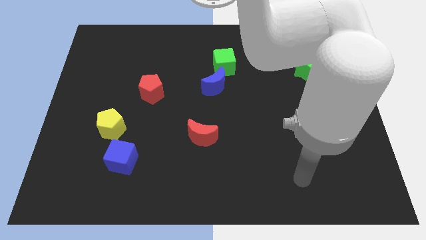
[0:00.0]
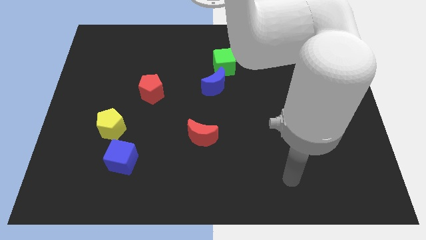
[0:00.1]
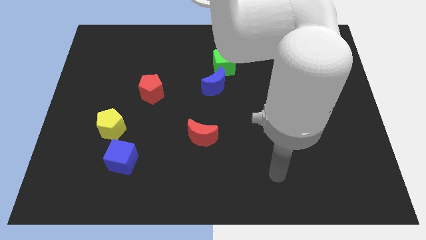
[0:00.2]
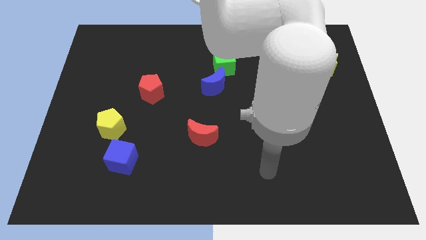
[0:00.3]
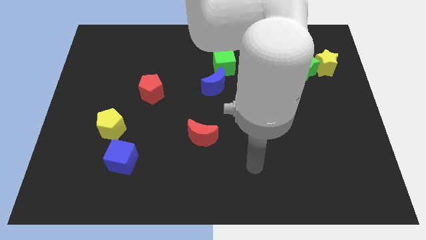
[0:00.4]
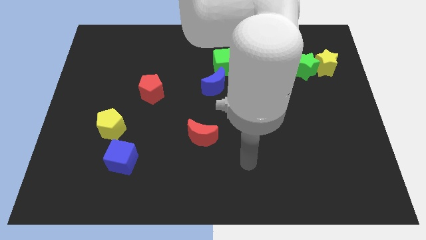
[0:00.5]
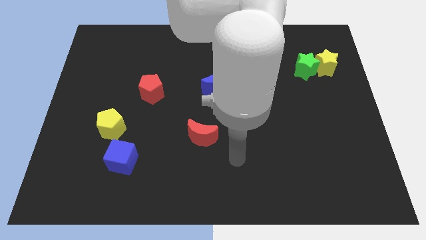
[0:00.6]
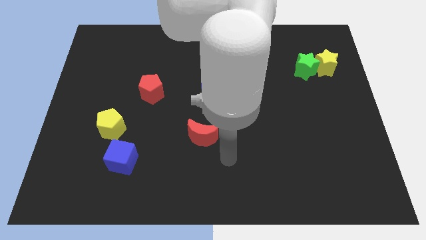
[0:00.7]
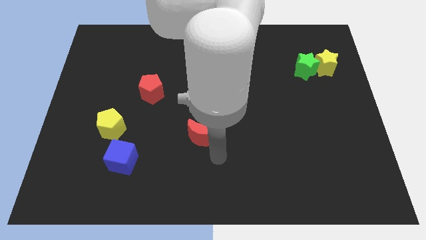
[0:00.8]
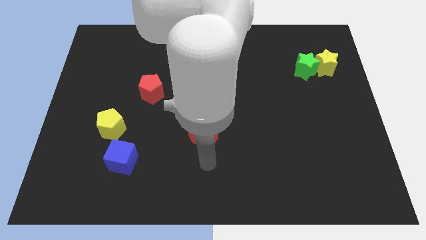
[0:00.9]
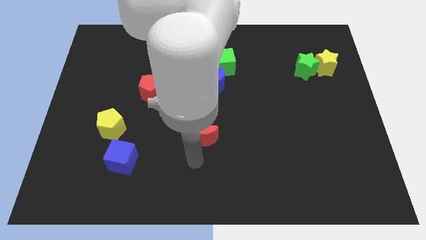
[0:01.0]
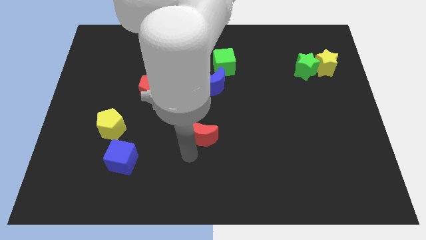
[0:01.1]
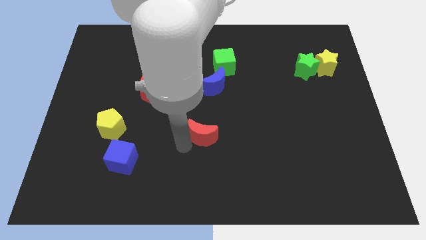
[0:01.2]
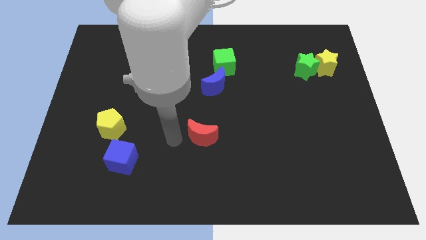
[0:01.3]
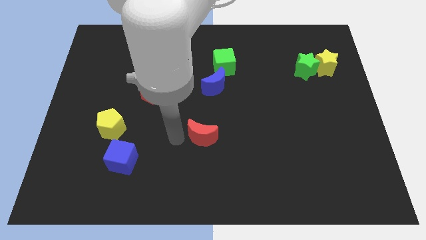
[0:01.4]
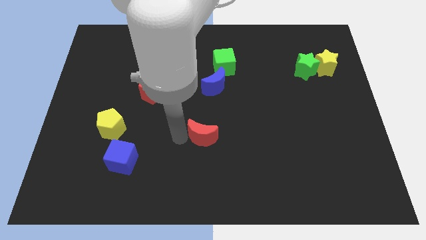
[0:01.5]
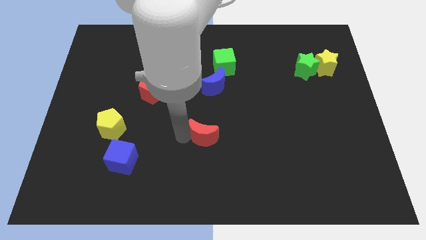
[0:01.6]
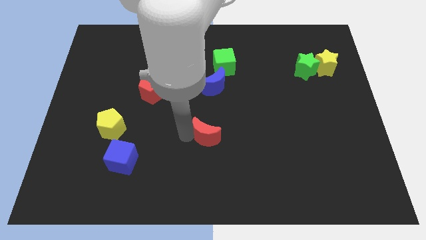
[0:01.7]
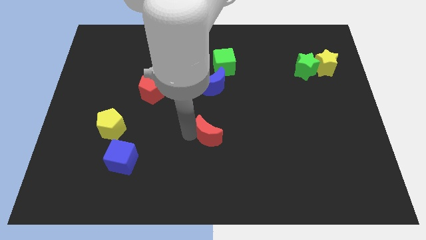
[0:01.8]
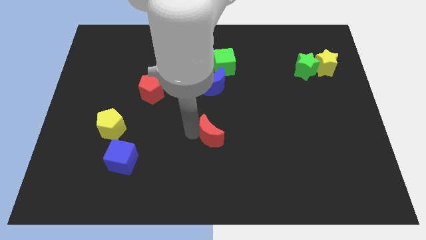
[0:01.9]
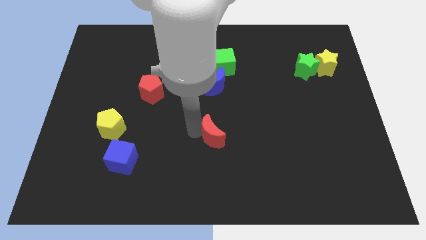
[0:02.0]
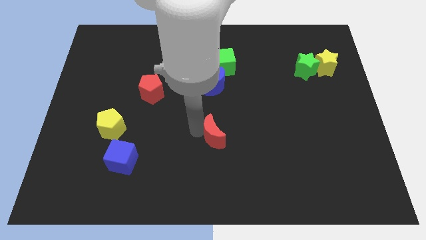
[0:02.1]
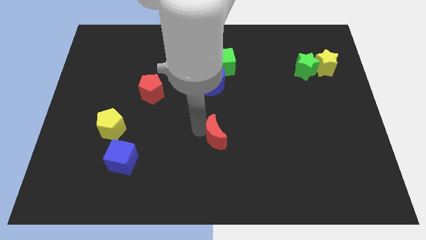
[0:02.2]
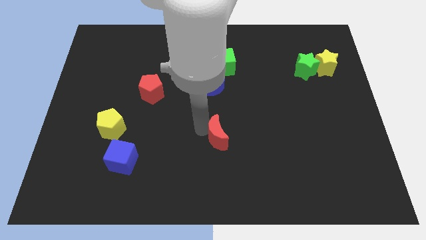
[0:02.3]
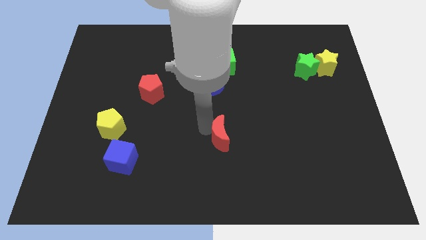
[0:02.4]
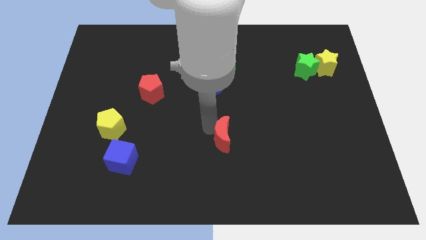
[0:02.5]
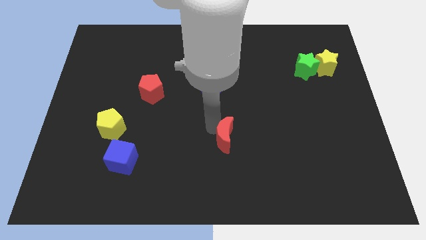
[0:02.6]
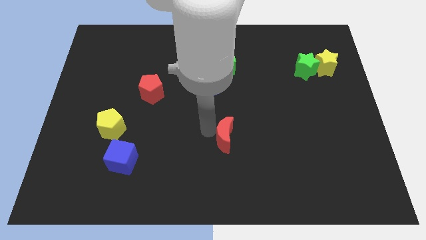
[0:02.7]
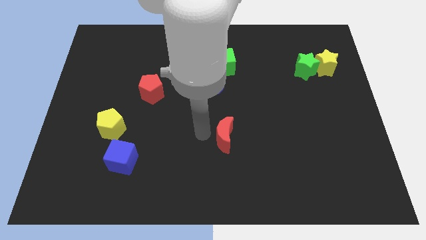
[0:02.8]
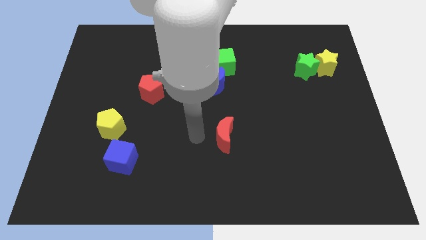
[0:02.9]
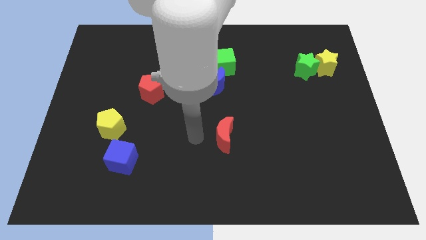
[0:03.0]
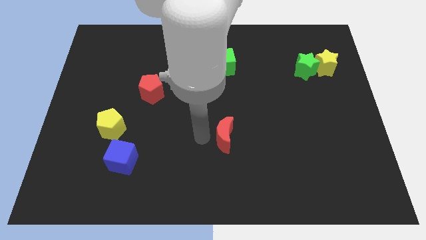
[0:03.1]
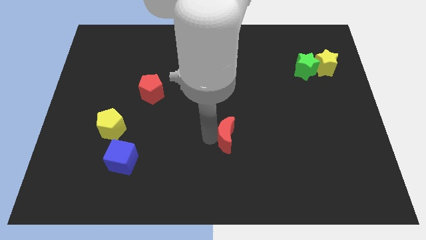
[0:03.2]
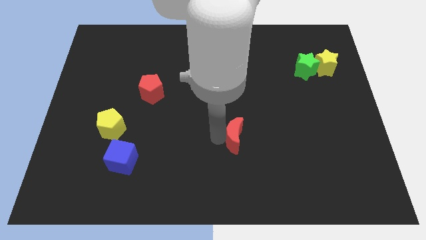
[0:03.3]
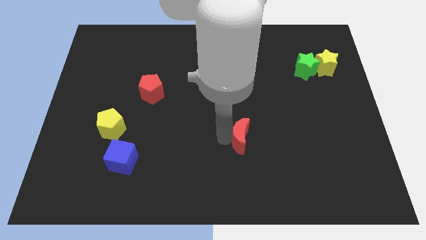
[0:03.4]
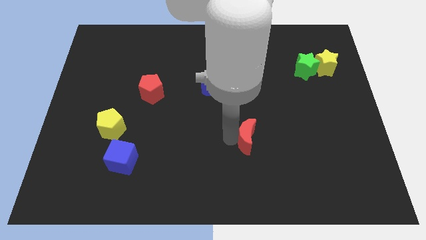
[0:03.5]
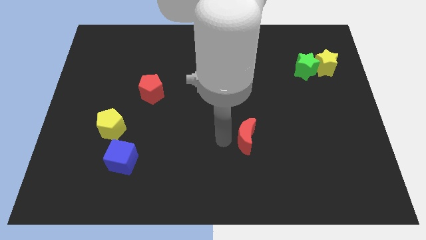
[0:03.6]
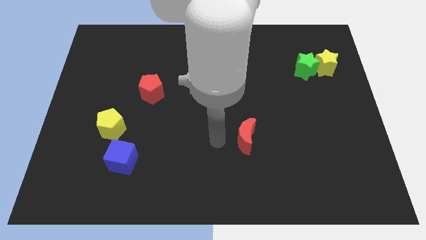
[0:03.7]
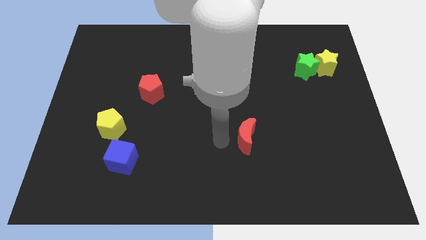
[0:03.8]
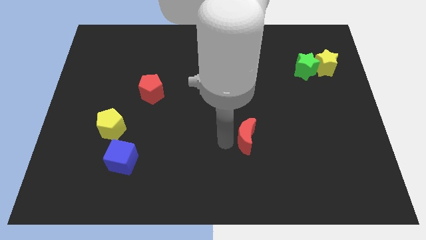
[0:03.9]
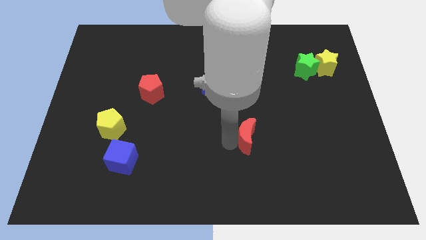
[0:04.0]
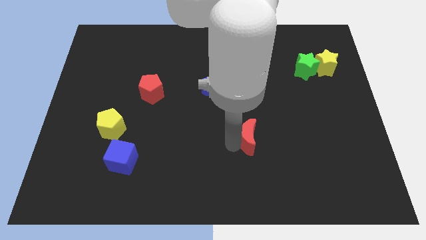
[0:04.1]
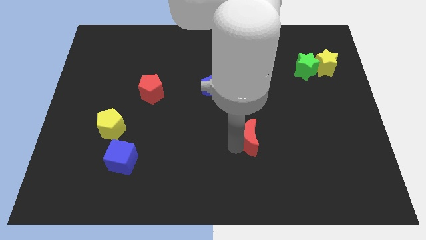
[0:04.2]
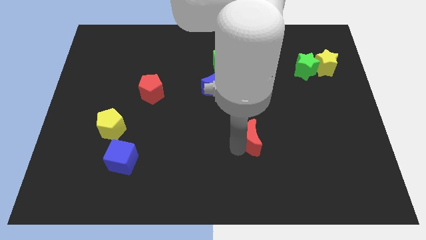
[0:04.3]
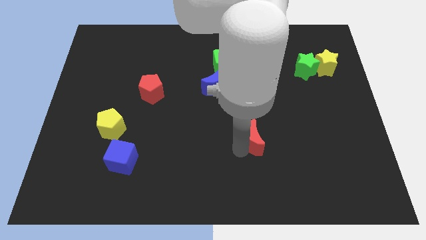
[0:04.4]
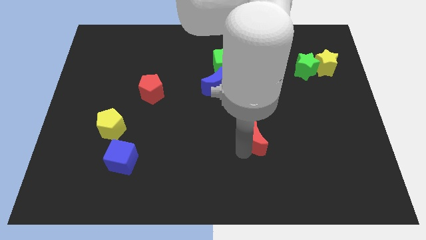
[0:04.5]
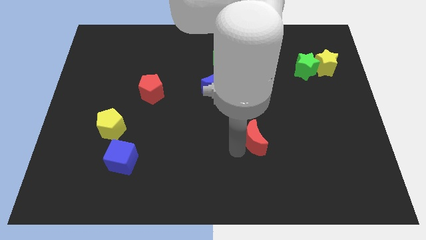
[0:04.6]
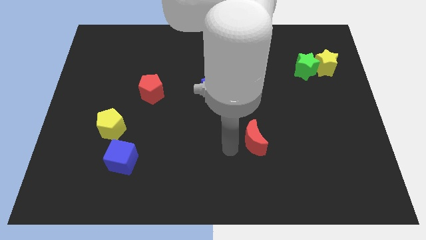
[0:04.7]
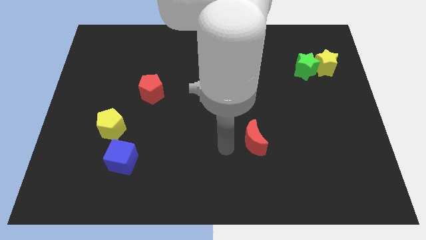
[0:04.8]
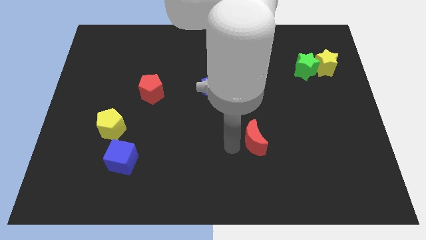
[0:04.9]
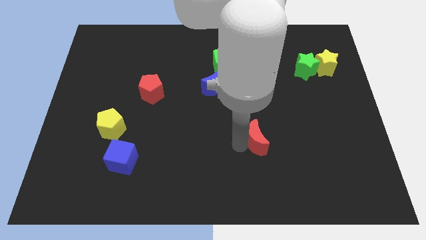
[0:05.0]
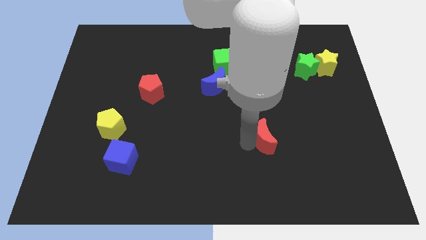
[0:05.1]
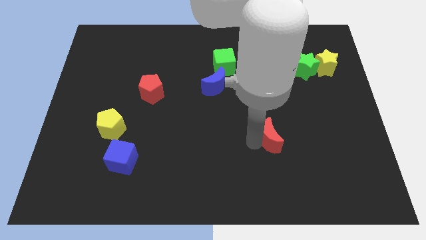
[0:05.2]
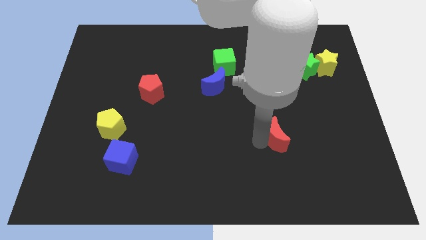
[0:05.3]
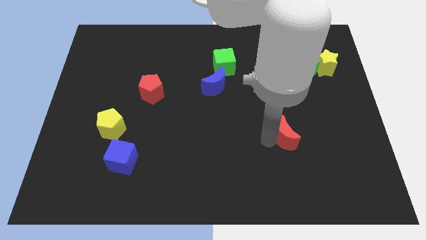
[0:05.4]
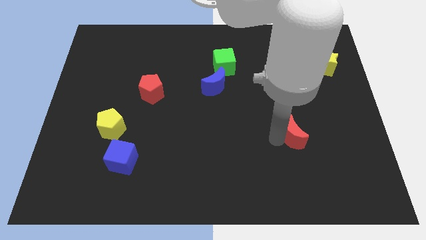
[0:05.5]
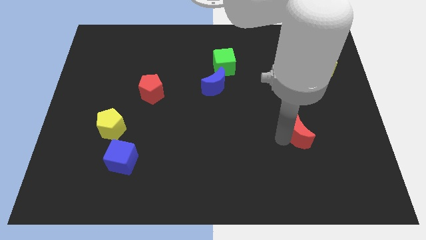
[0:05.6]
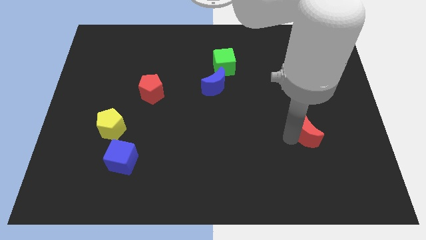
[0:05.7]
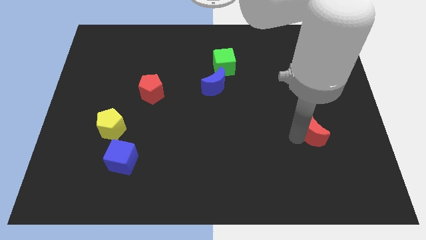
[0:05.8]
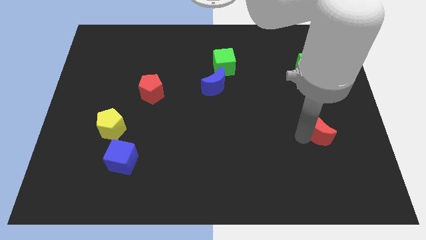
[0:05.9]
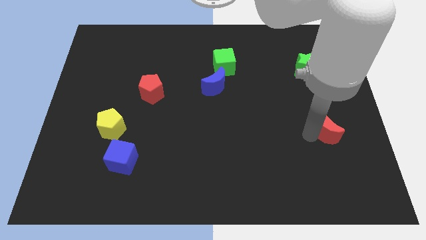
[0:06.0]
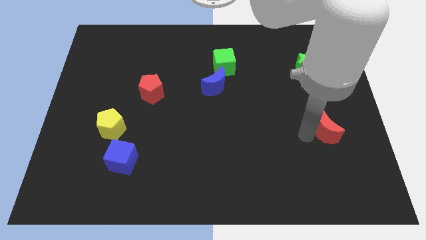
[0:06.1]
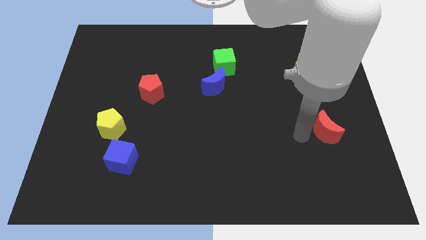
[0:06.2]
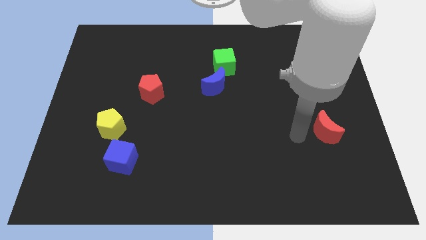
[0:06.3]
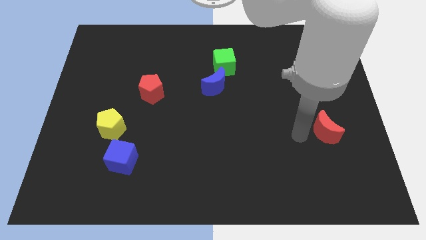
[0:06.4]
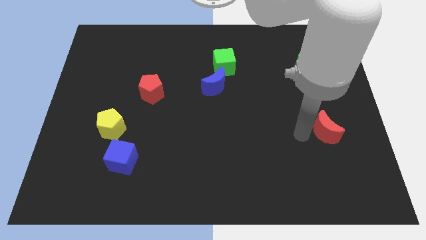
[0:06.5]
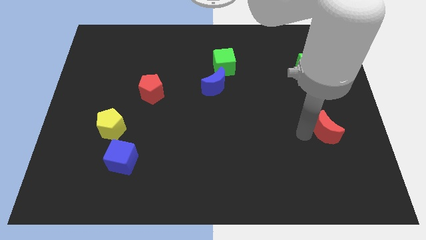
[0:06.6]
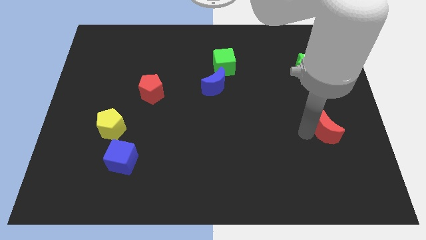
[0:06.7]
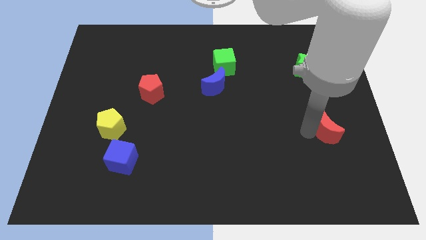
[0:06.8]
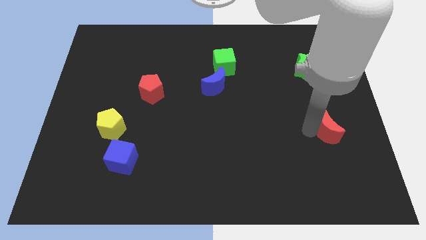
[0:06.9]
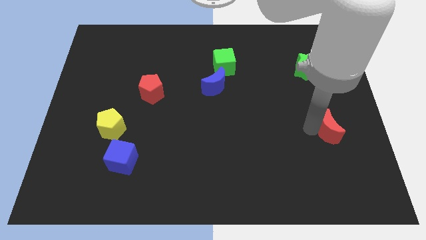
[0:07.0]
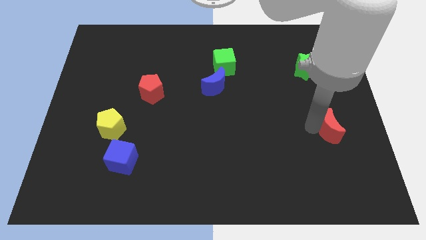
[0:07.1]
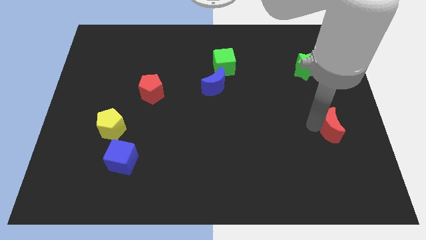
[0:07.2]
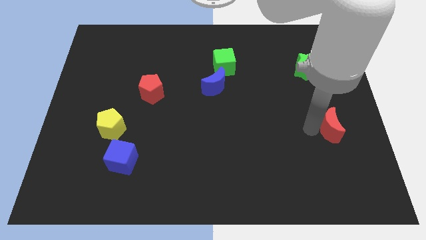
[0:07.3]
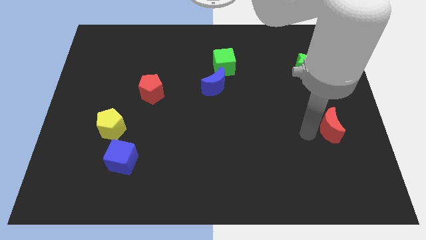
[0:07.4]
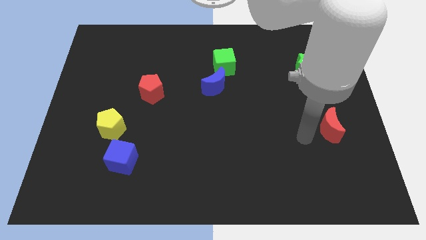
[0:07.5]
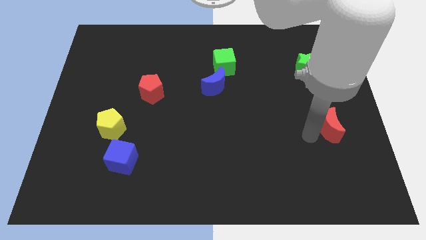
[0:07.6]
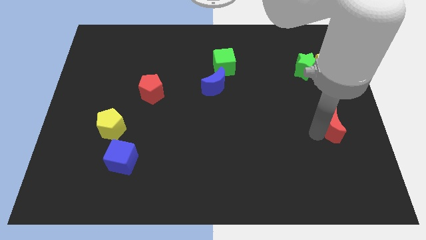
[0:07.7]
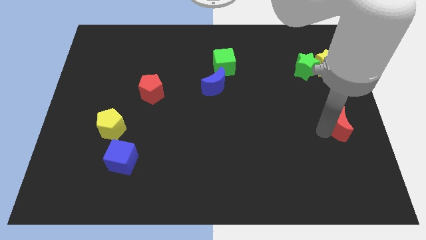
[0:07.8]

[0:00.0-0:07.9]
slide the red moon to the center right
